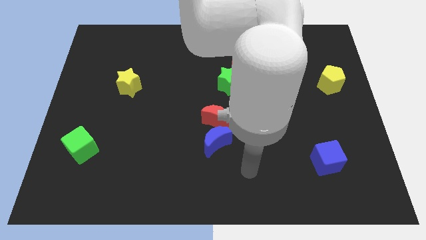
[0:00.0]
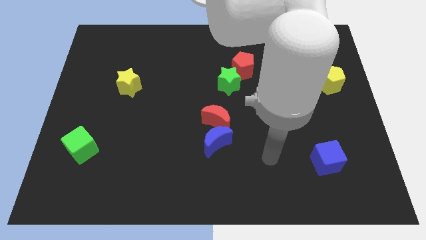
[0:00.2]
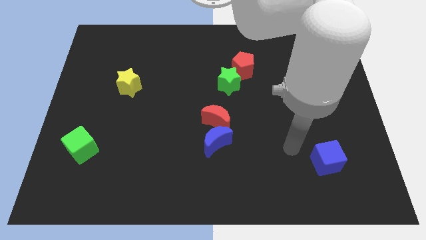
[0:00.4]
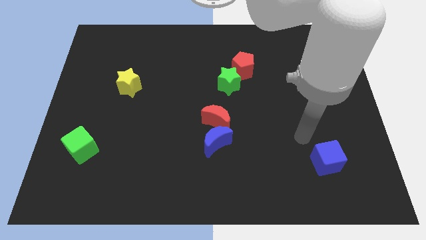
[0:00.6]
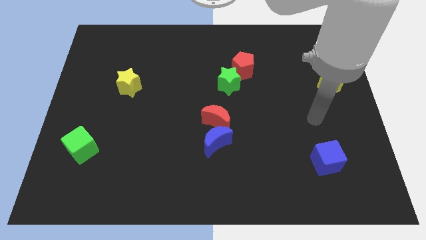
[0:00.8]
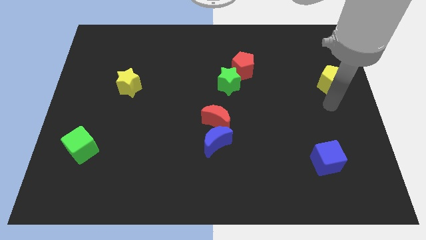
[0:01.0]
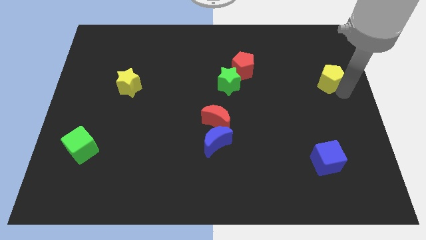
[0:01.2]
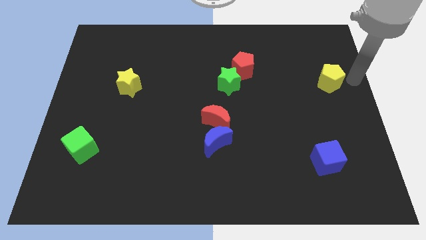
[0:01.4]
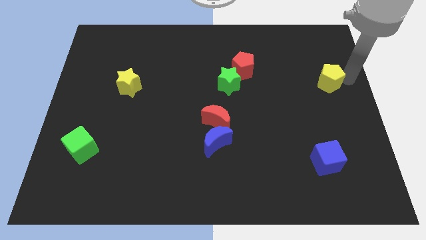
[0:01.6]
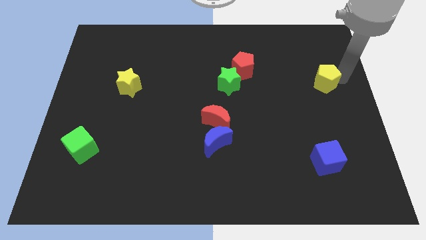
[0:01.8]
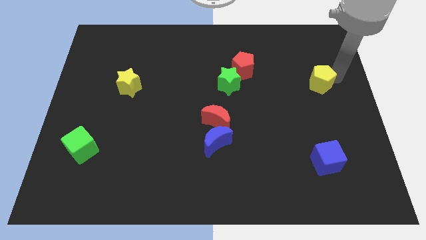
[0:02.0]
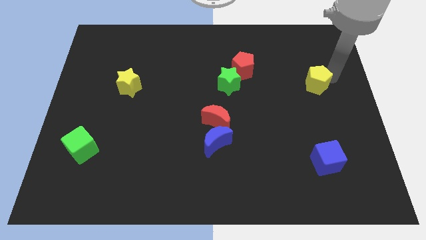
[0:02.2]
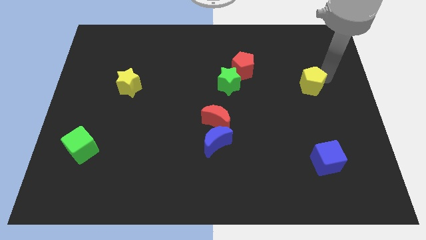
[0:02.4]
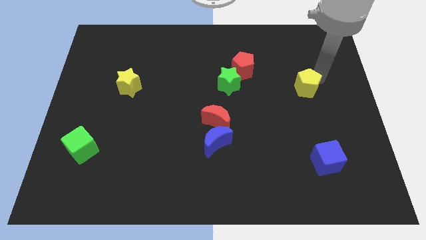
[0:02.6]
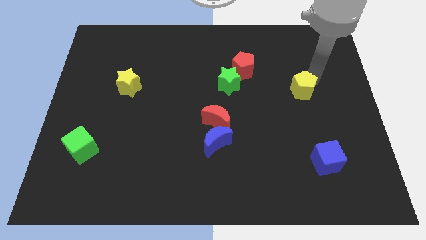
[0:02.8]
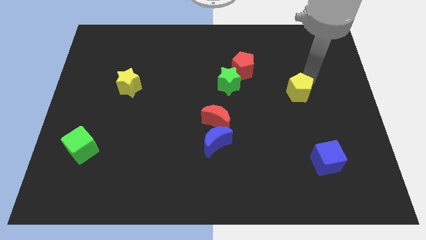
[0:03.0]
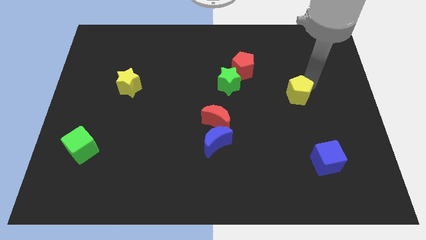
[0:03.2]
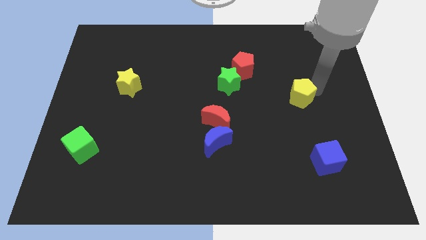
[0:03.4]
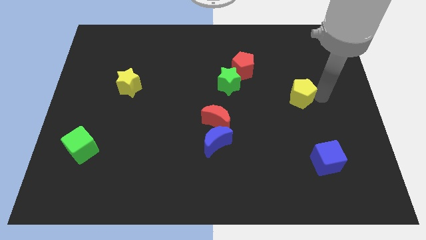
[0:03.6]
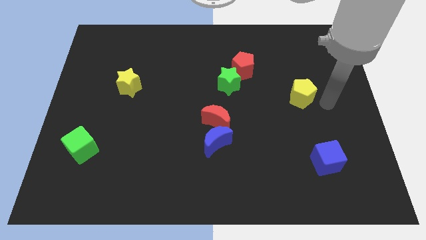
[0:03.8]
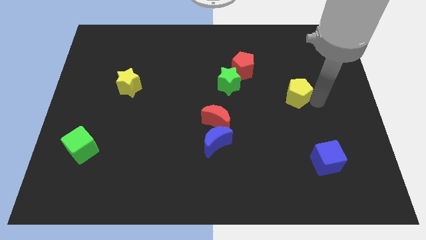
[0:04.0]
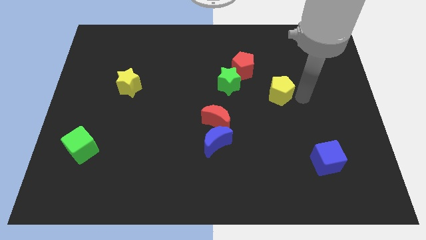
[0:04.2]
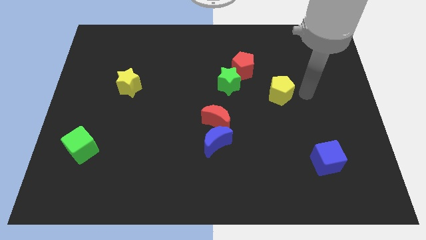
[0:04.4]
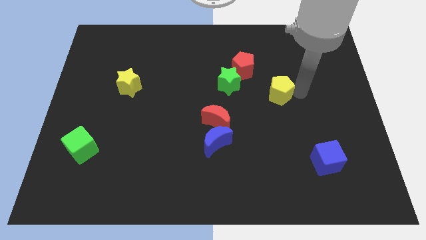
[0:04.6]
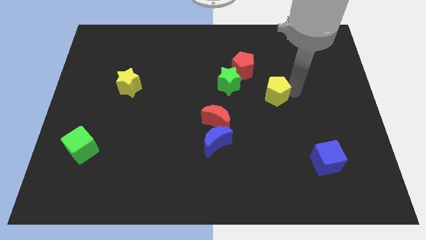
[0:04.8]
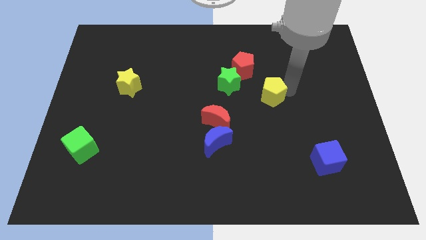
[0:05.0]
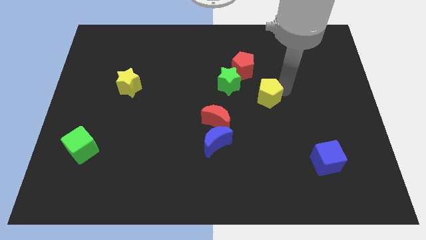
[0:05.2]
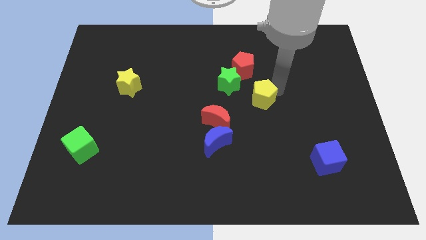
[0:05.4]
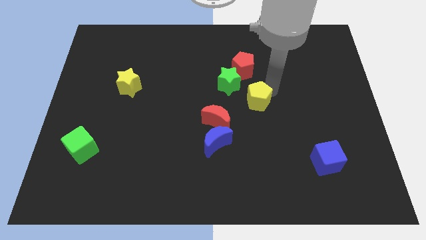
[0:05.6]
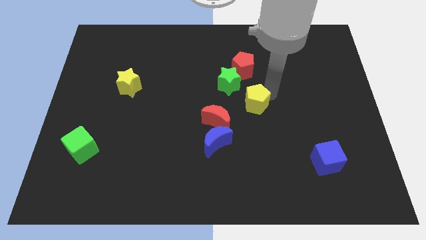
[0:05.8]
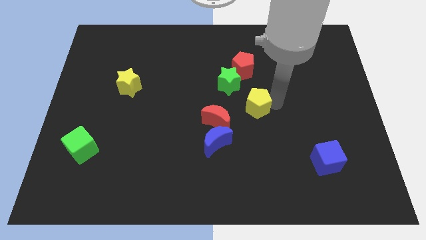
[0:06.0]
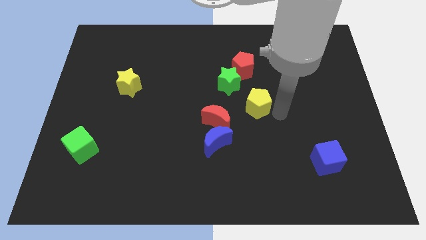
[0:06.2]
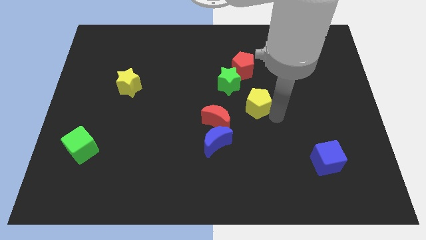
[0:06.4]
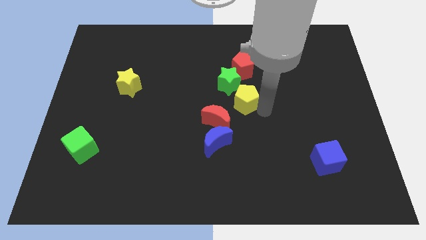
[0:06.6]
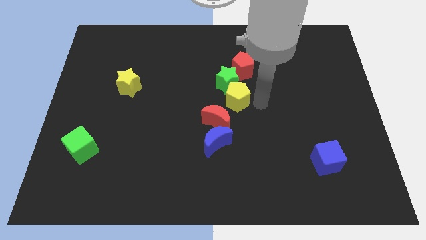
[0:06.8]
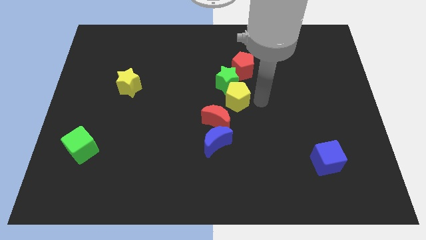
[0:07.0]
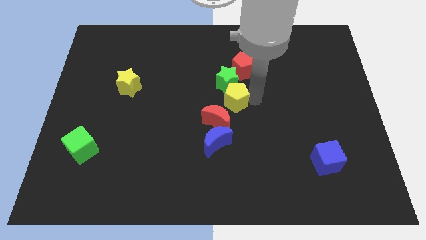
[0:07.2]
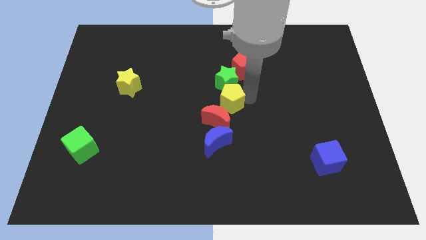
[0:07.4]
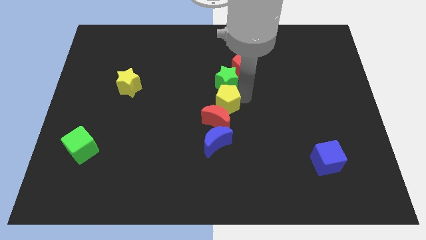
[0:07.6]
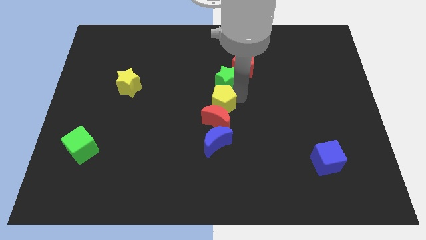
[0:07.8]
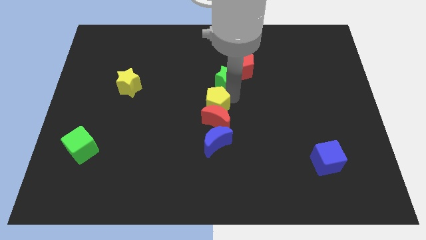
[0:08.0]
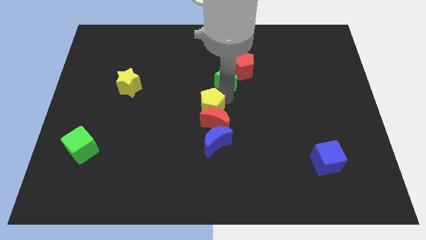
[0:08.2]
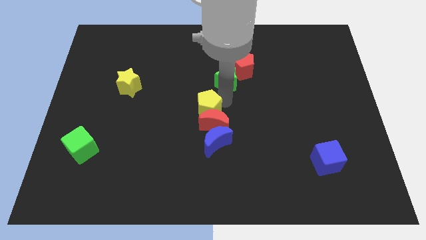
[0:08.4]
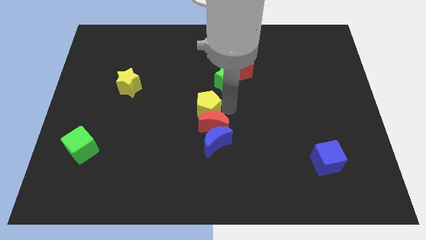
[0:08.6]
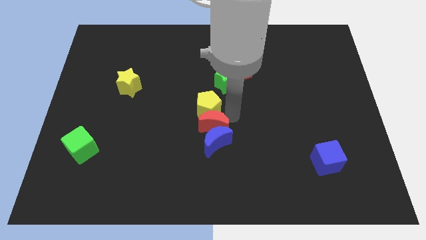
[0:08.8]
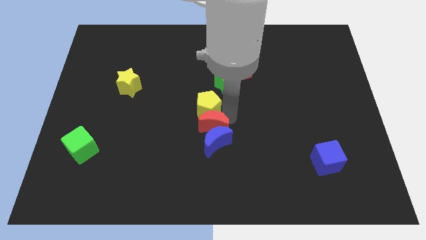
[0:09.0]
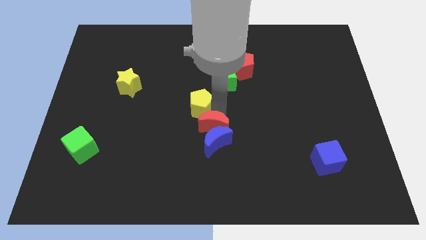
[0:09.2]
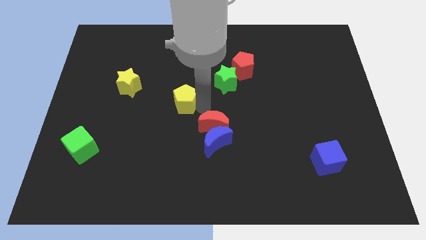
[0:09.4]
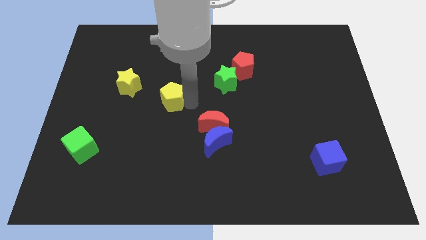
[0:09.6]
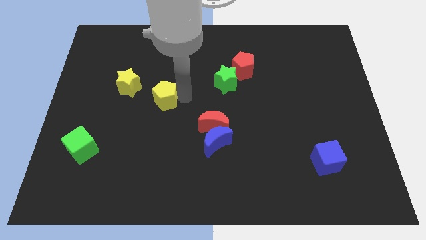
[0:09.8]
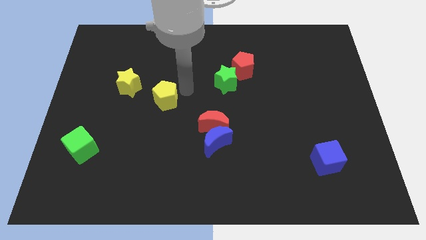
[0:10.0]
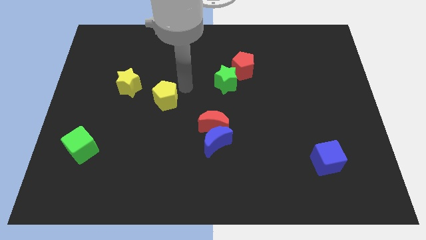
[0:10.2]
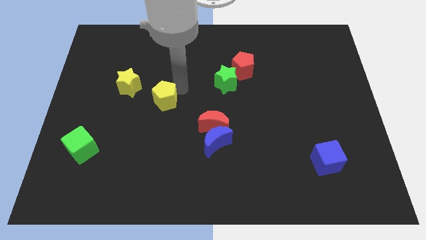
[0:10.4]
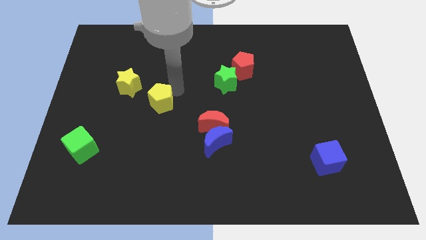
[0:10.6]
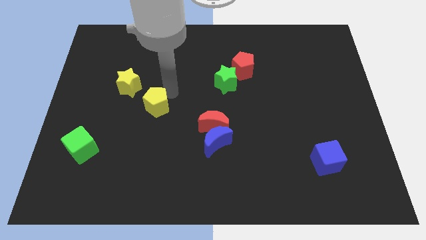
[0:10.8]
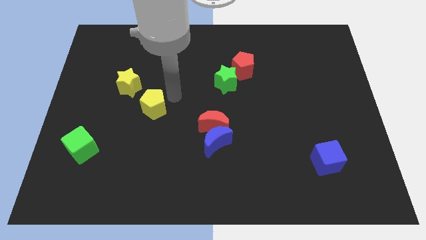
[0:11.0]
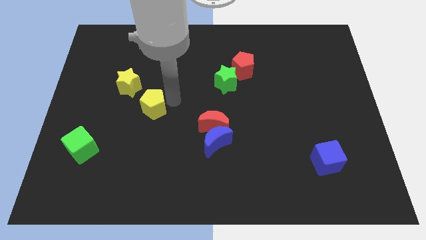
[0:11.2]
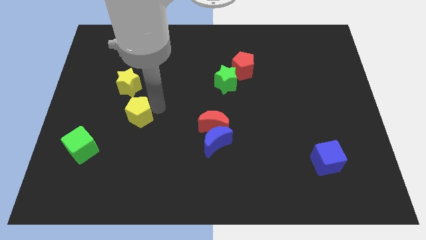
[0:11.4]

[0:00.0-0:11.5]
push the yellow pentagon below the yellow star
